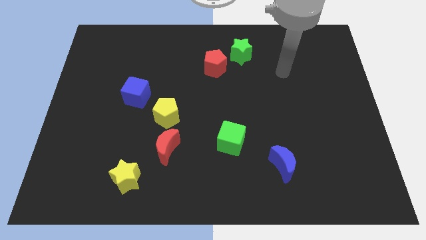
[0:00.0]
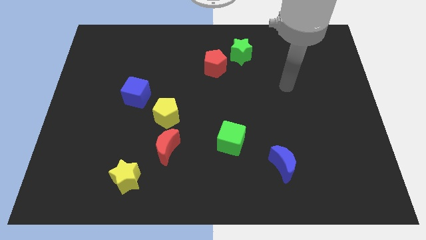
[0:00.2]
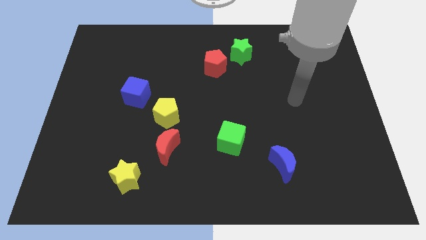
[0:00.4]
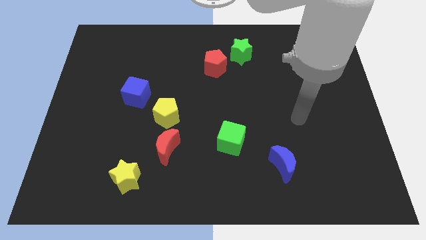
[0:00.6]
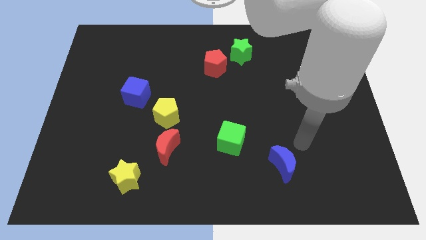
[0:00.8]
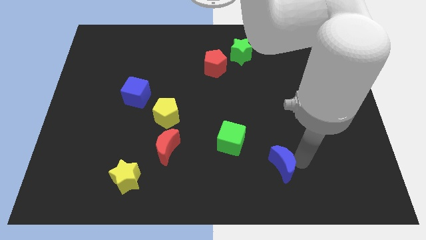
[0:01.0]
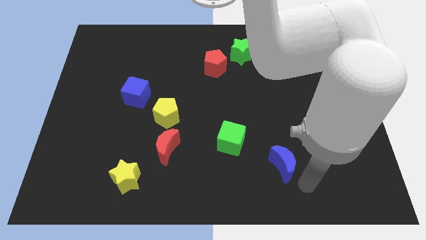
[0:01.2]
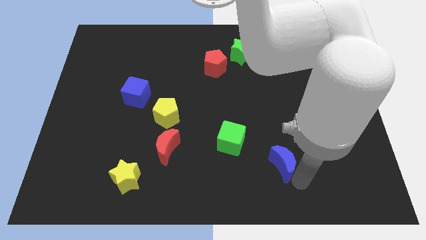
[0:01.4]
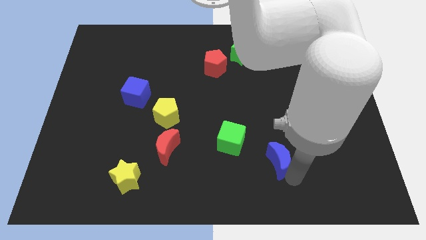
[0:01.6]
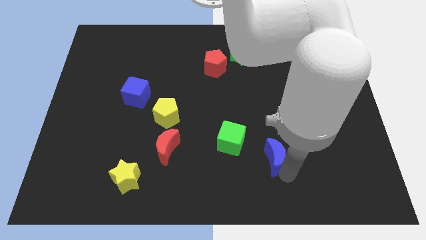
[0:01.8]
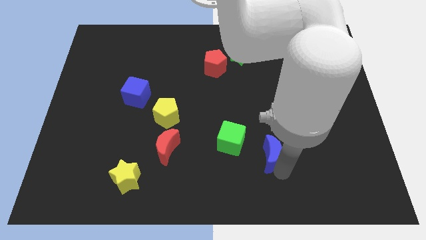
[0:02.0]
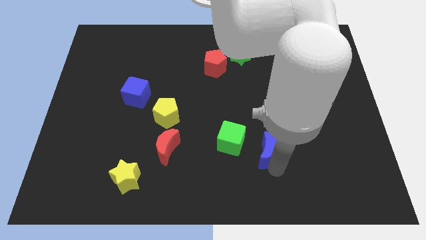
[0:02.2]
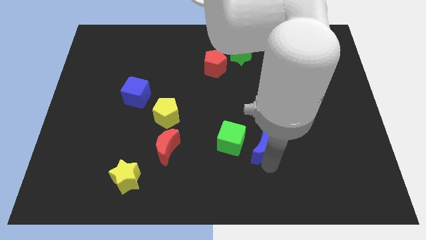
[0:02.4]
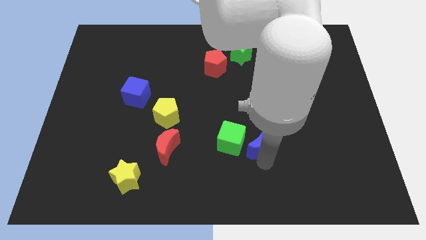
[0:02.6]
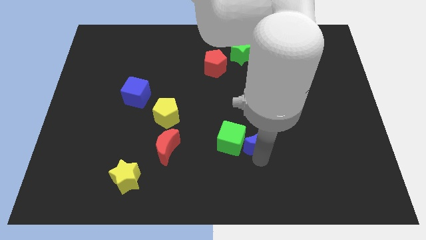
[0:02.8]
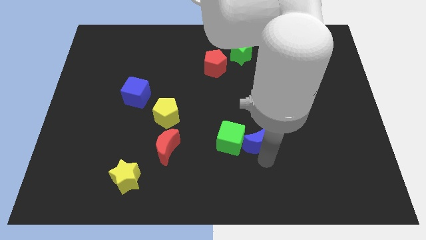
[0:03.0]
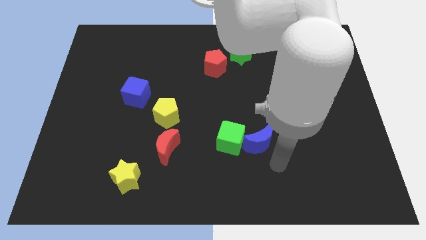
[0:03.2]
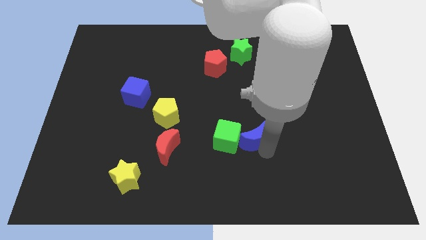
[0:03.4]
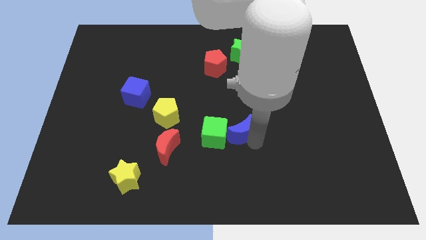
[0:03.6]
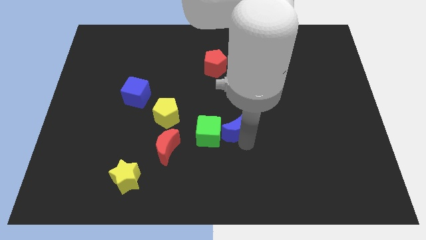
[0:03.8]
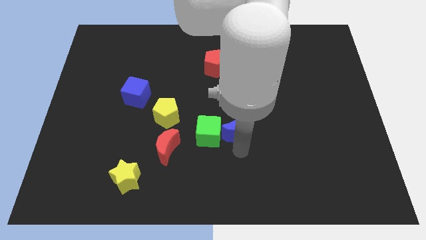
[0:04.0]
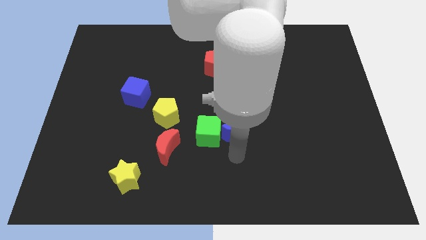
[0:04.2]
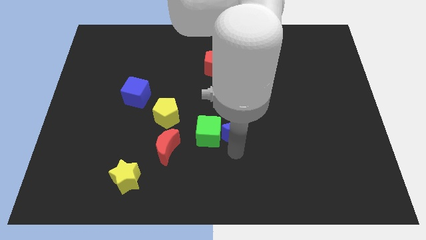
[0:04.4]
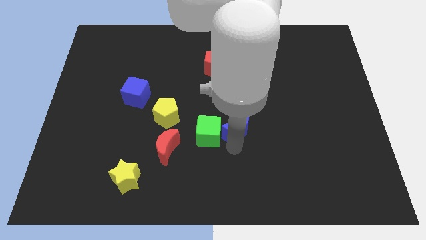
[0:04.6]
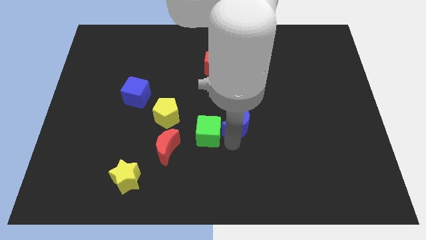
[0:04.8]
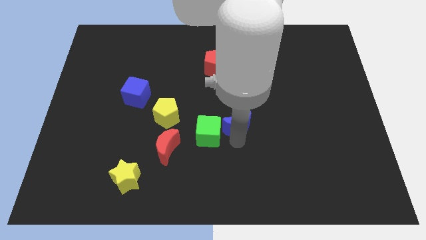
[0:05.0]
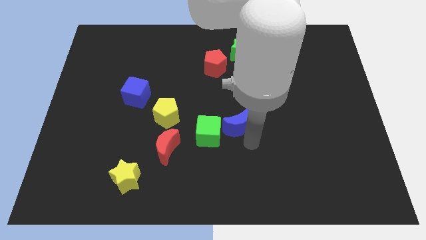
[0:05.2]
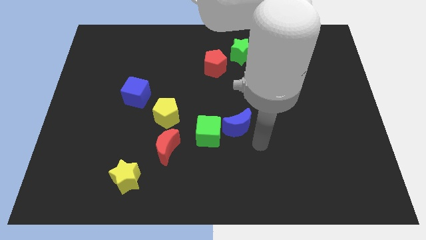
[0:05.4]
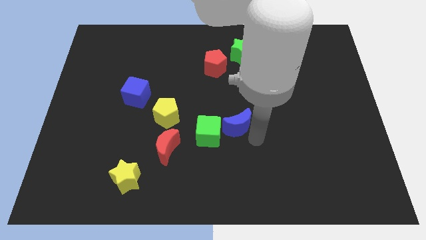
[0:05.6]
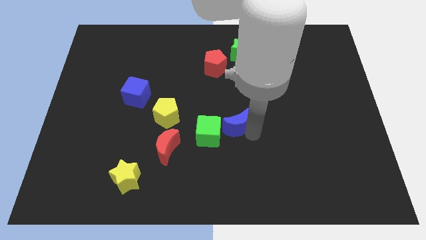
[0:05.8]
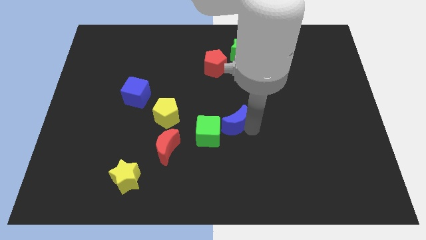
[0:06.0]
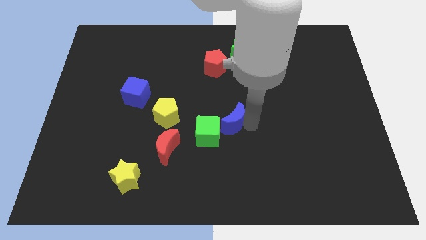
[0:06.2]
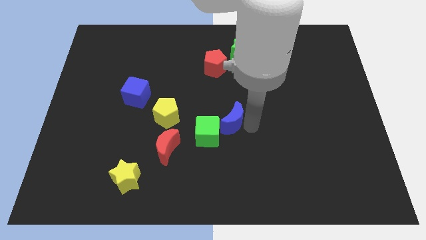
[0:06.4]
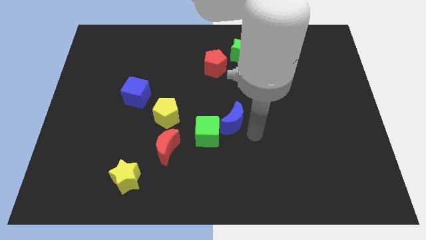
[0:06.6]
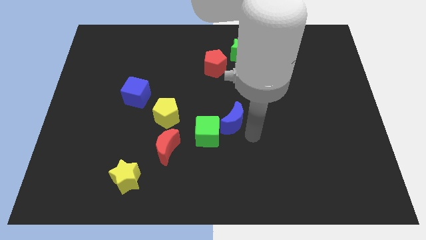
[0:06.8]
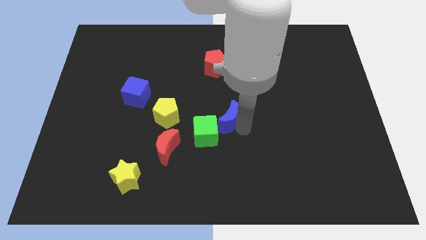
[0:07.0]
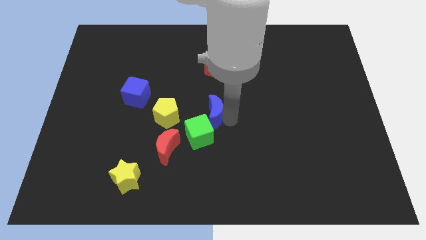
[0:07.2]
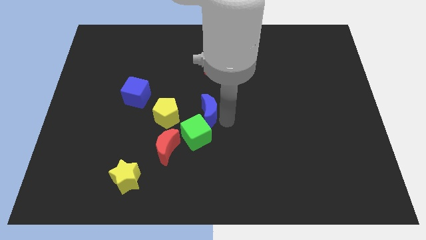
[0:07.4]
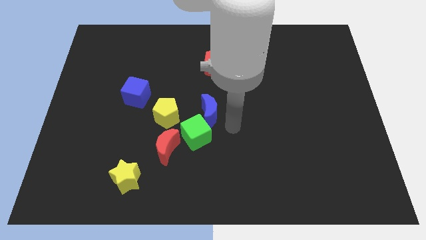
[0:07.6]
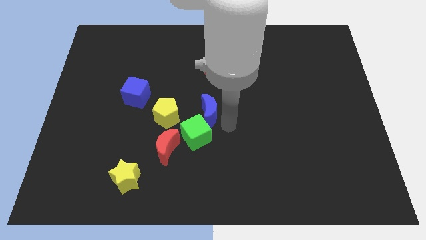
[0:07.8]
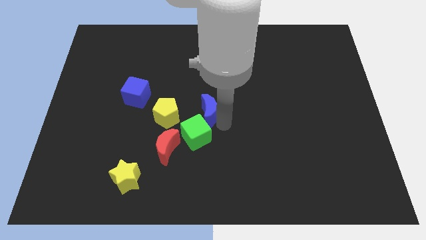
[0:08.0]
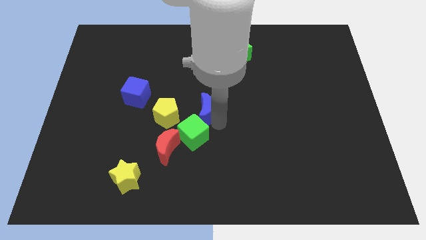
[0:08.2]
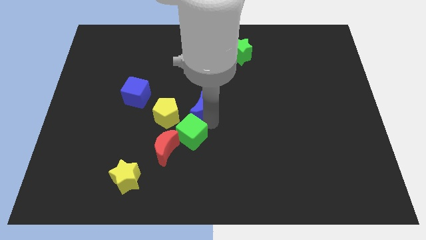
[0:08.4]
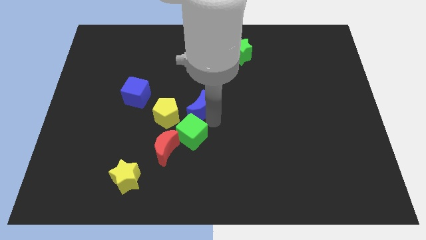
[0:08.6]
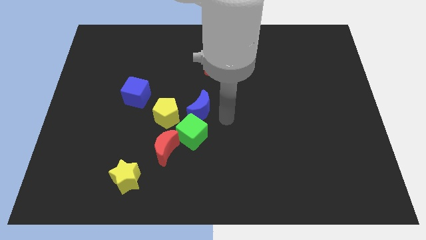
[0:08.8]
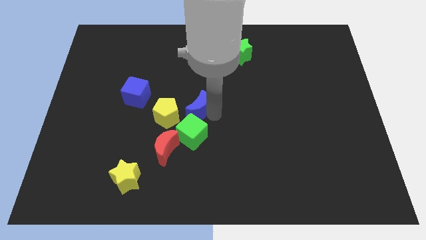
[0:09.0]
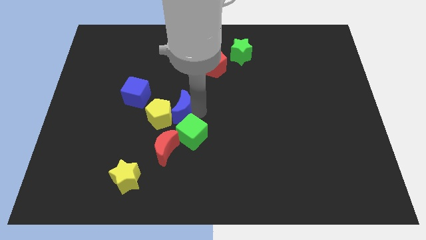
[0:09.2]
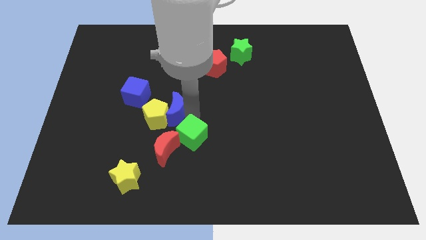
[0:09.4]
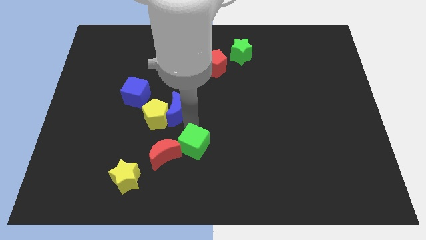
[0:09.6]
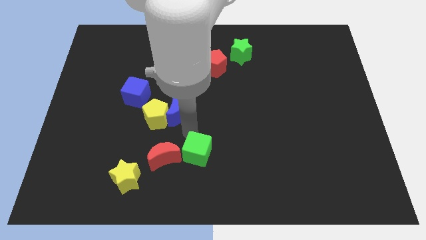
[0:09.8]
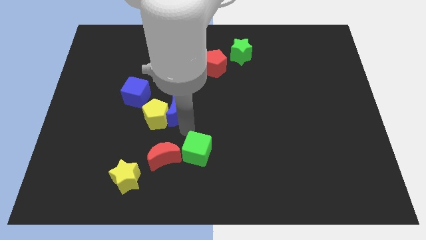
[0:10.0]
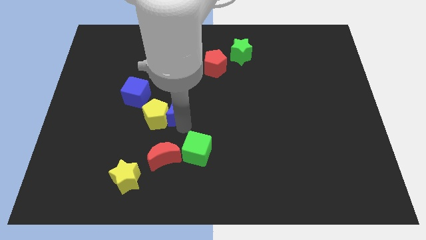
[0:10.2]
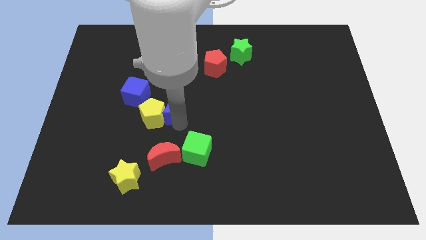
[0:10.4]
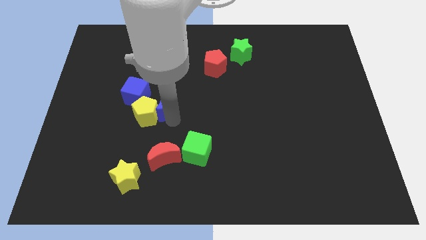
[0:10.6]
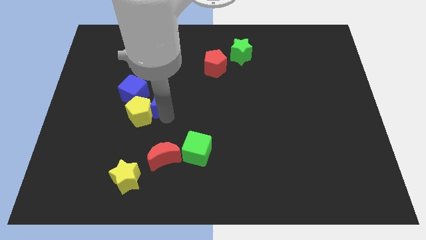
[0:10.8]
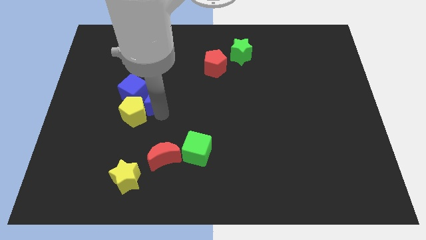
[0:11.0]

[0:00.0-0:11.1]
put the blue moon close to the blue cube

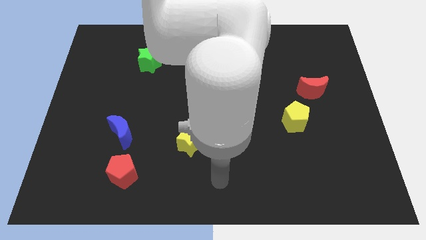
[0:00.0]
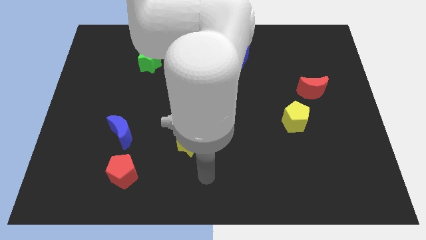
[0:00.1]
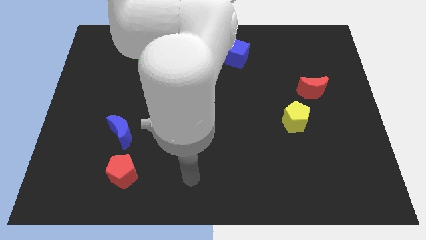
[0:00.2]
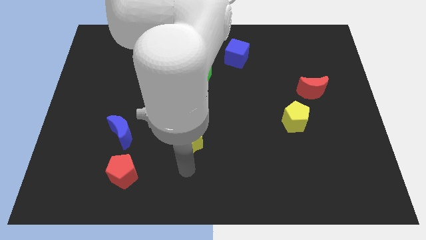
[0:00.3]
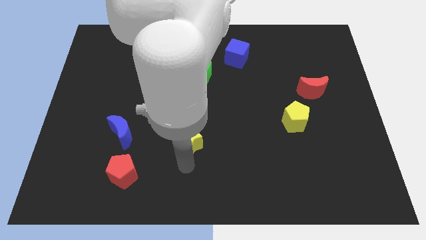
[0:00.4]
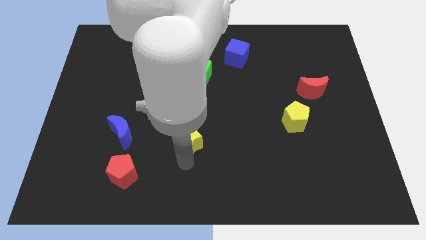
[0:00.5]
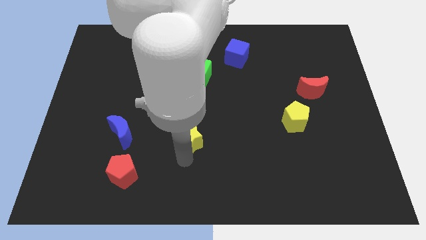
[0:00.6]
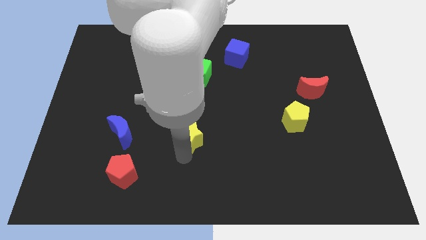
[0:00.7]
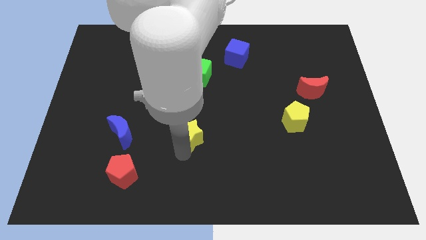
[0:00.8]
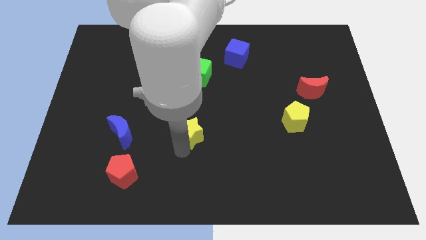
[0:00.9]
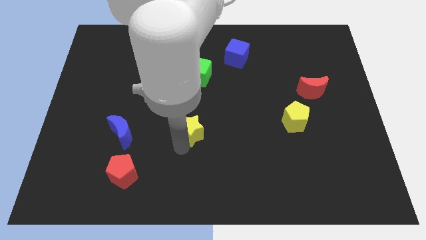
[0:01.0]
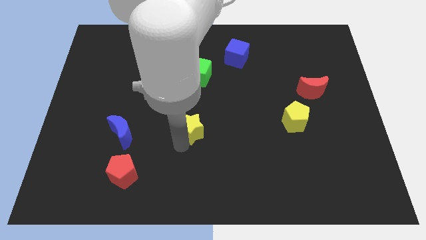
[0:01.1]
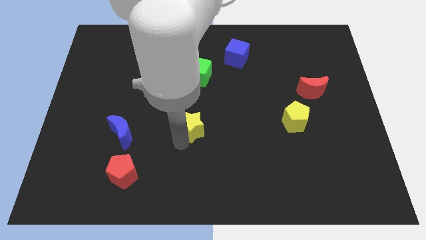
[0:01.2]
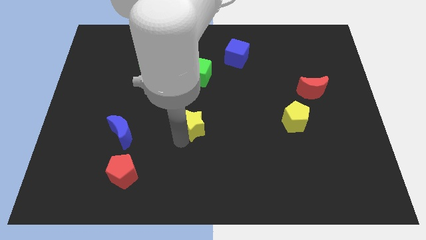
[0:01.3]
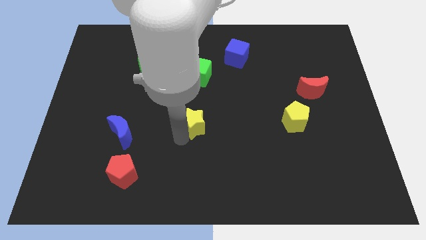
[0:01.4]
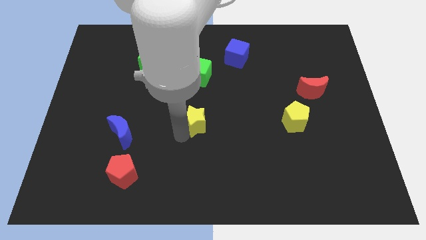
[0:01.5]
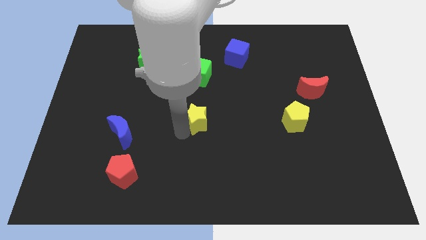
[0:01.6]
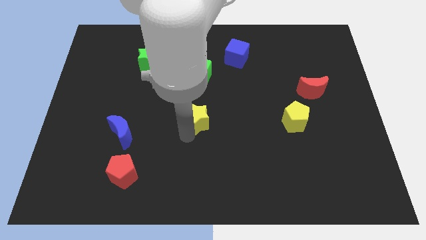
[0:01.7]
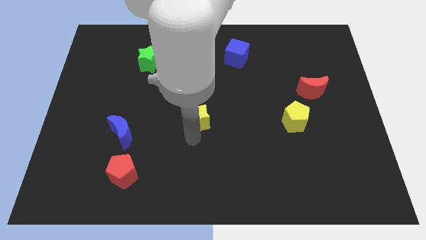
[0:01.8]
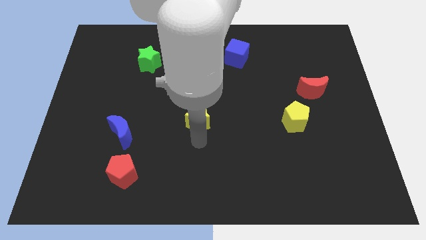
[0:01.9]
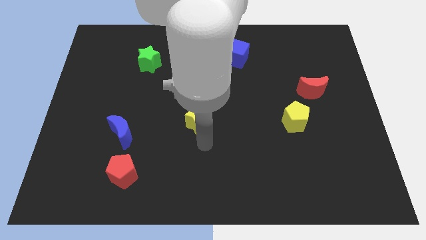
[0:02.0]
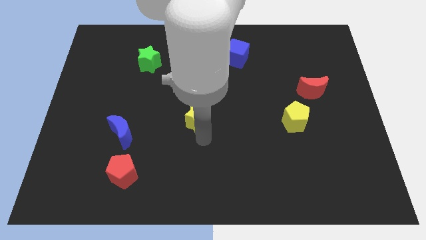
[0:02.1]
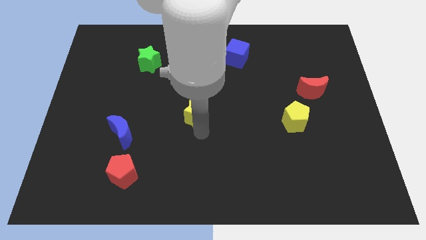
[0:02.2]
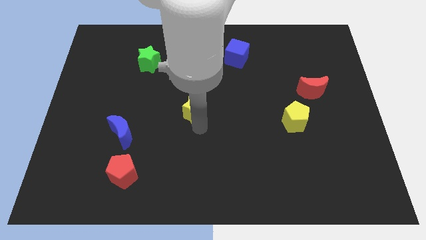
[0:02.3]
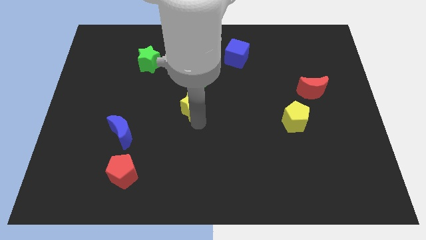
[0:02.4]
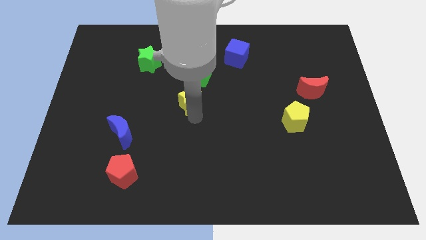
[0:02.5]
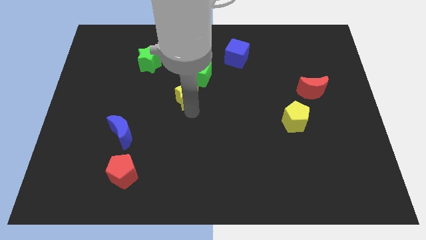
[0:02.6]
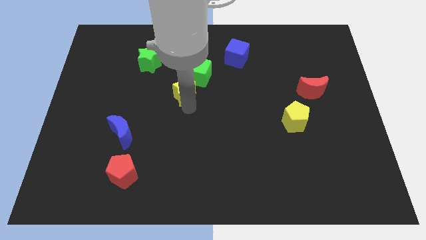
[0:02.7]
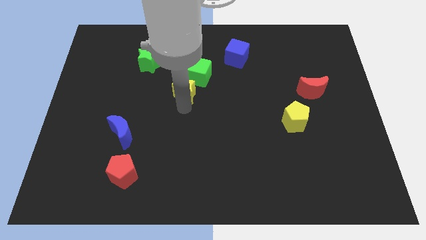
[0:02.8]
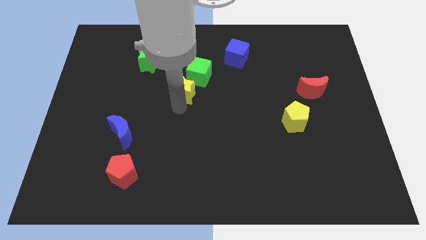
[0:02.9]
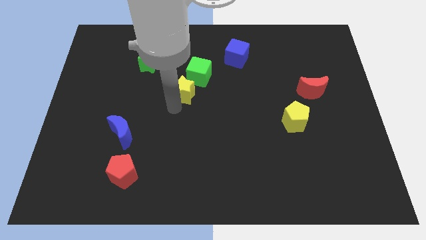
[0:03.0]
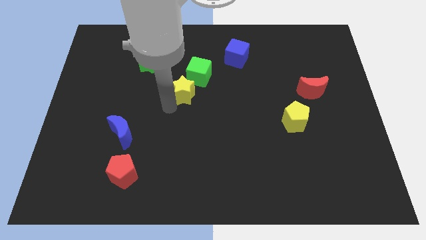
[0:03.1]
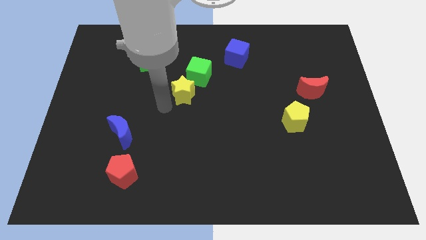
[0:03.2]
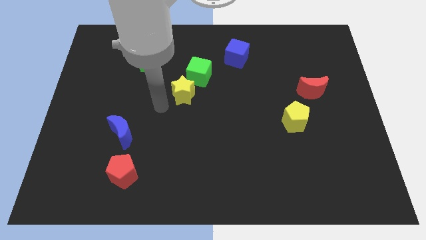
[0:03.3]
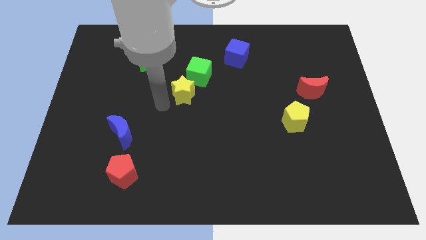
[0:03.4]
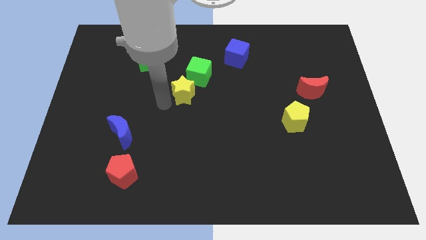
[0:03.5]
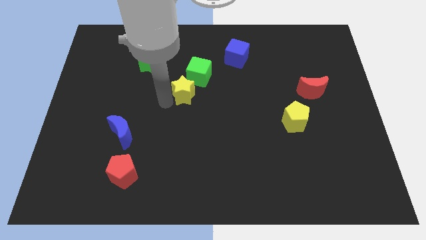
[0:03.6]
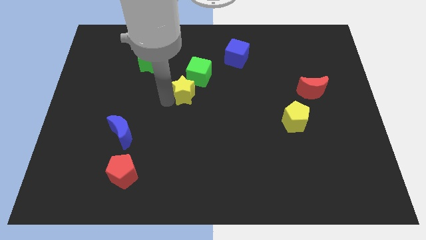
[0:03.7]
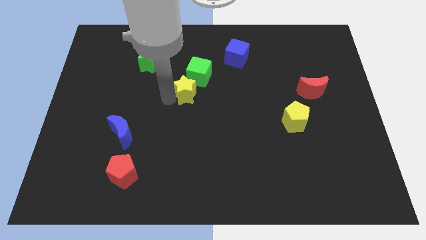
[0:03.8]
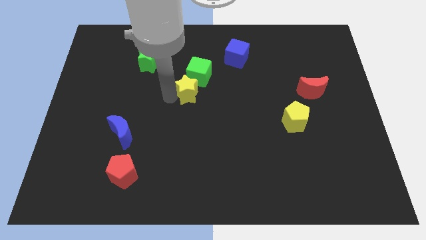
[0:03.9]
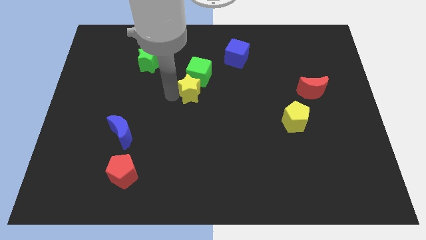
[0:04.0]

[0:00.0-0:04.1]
move the yellow star to the green cube
